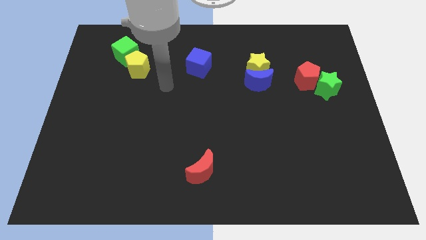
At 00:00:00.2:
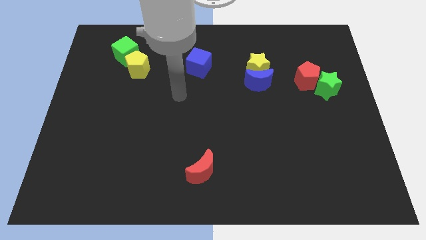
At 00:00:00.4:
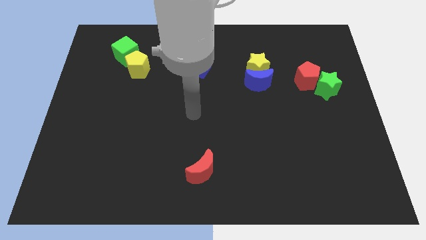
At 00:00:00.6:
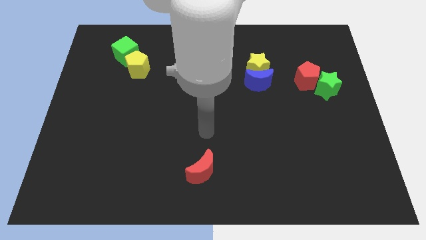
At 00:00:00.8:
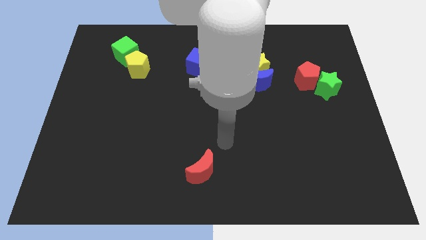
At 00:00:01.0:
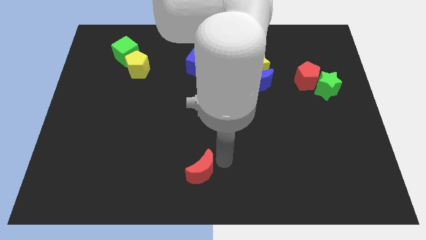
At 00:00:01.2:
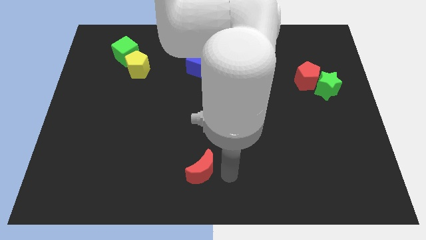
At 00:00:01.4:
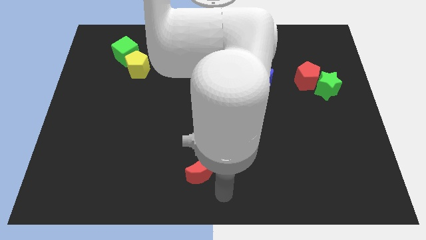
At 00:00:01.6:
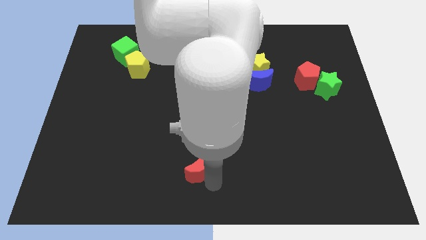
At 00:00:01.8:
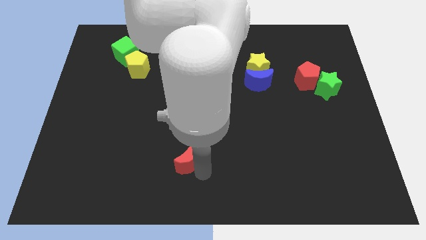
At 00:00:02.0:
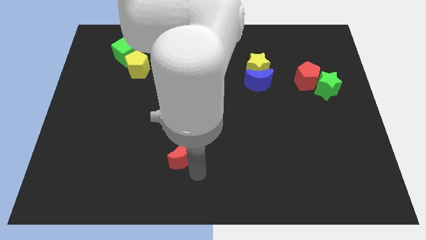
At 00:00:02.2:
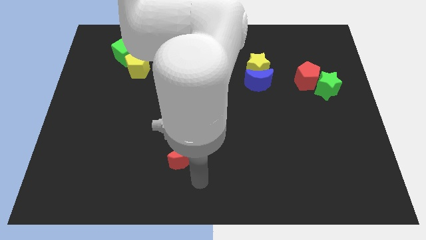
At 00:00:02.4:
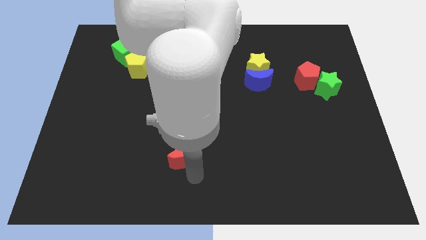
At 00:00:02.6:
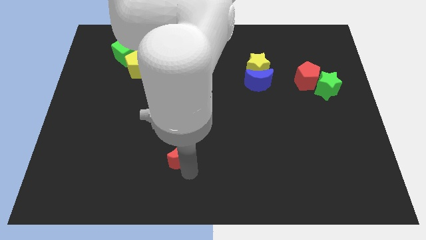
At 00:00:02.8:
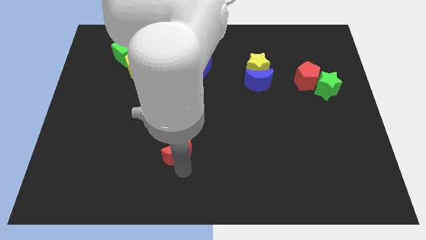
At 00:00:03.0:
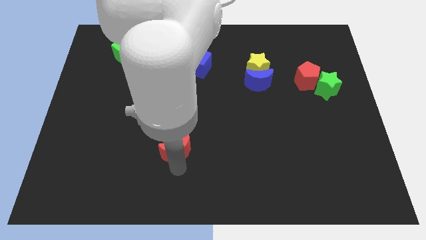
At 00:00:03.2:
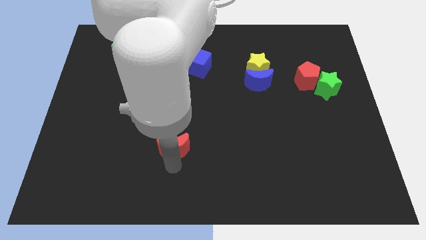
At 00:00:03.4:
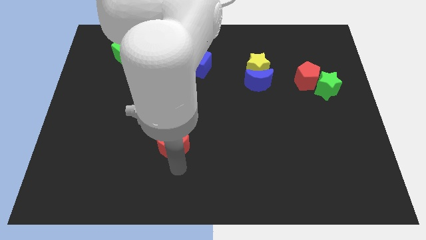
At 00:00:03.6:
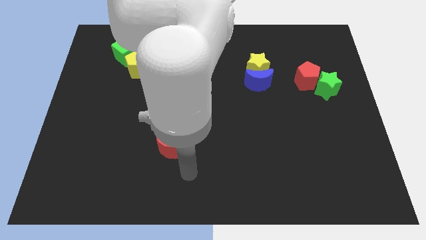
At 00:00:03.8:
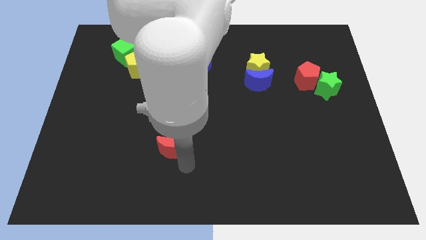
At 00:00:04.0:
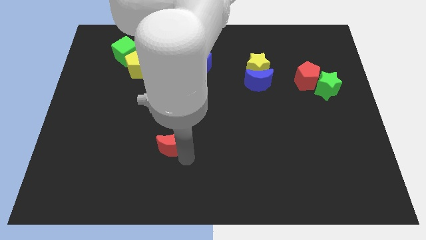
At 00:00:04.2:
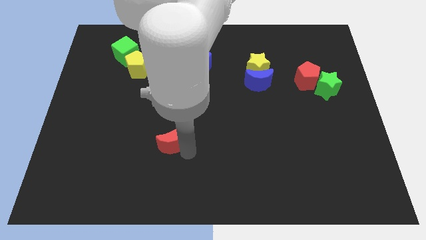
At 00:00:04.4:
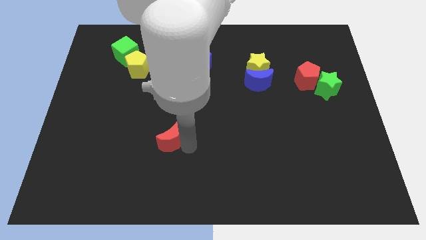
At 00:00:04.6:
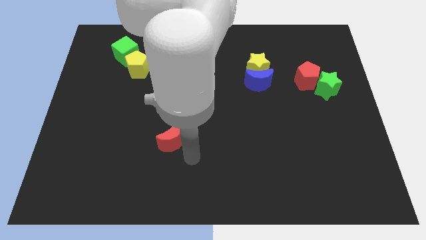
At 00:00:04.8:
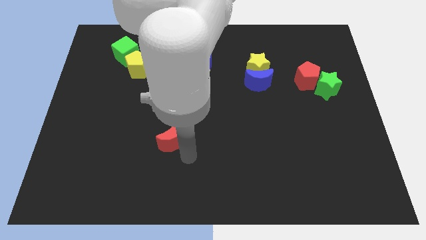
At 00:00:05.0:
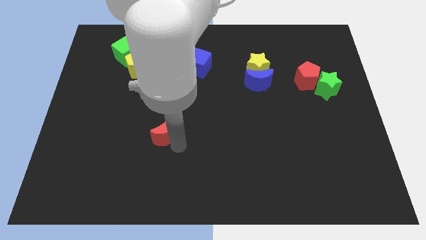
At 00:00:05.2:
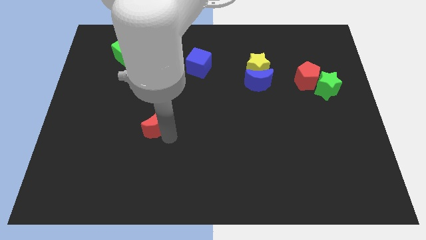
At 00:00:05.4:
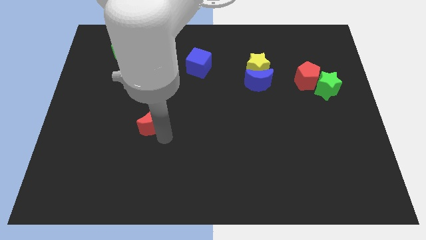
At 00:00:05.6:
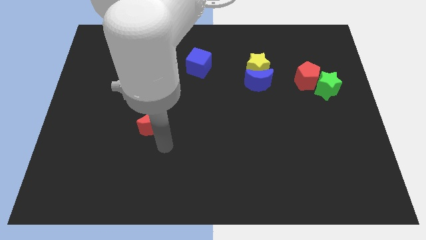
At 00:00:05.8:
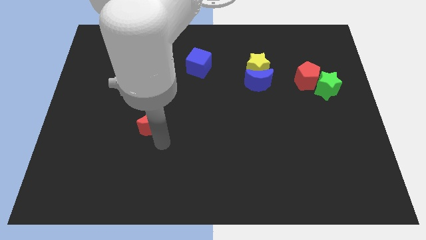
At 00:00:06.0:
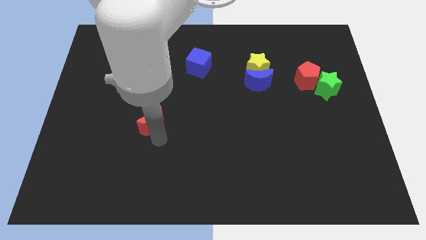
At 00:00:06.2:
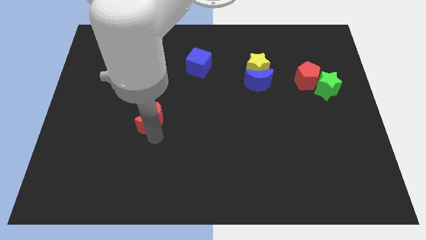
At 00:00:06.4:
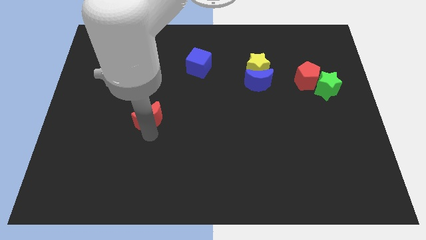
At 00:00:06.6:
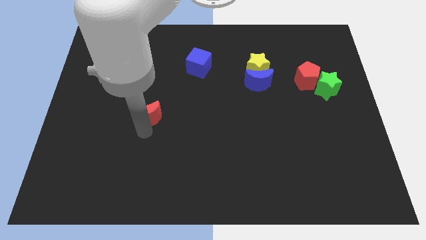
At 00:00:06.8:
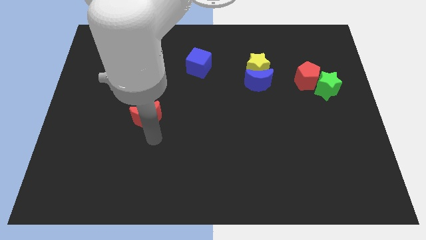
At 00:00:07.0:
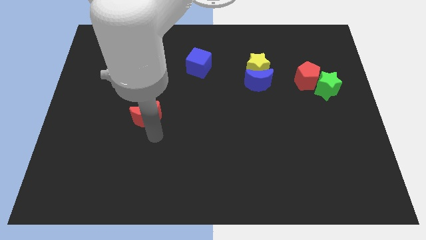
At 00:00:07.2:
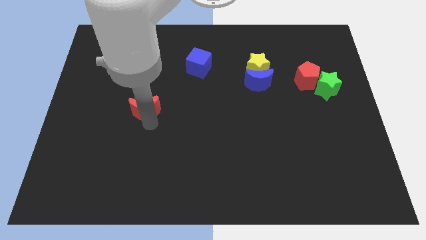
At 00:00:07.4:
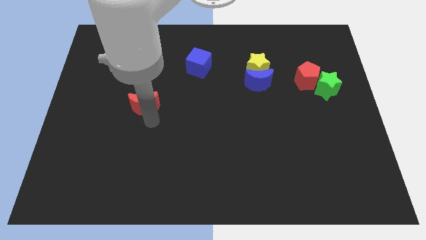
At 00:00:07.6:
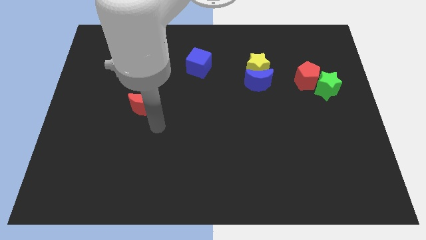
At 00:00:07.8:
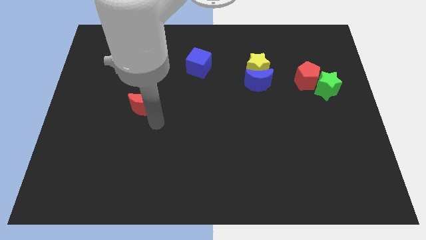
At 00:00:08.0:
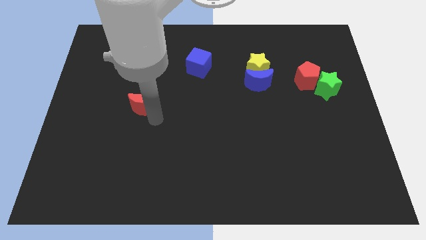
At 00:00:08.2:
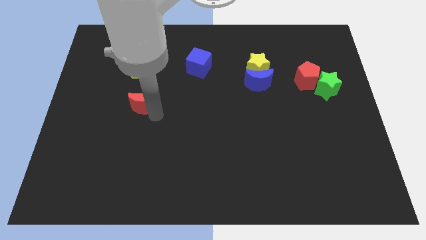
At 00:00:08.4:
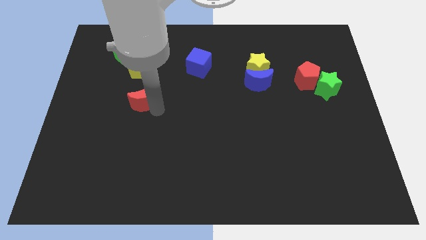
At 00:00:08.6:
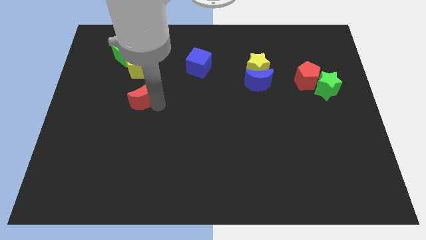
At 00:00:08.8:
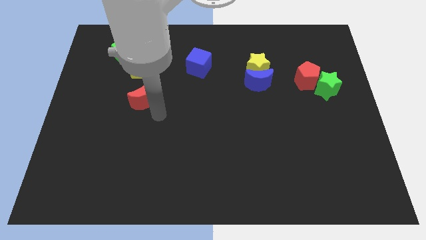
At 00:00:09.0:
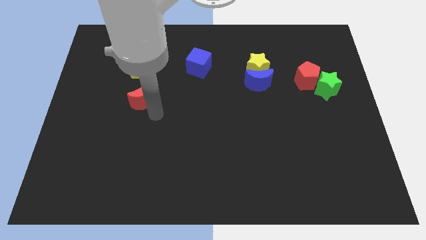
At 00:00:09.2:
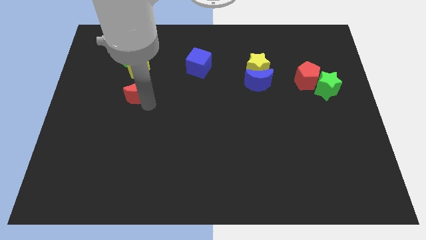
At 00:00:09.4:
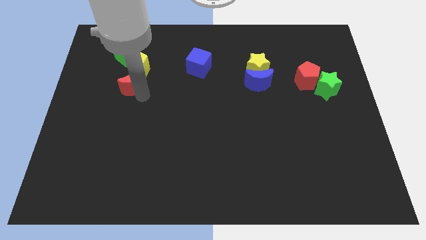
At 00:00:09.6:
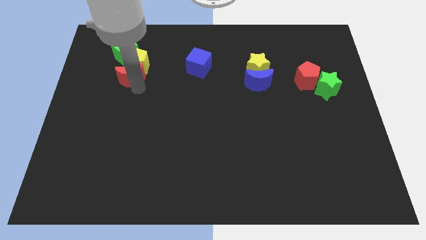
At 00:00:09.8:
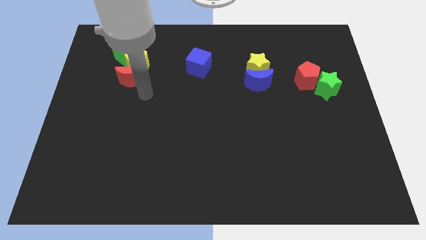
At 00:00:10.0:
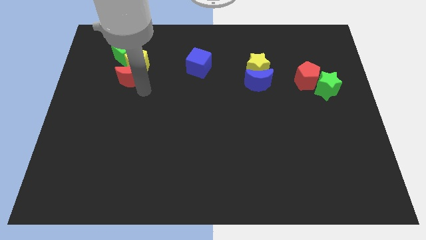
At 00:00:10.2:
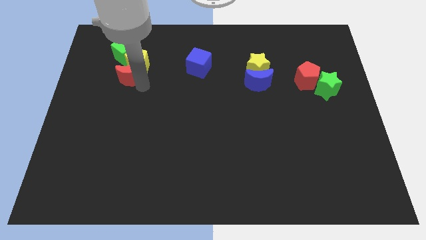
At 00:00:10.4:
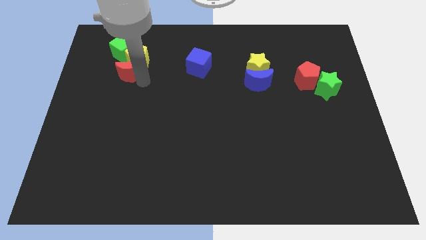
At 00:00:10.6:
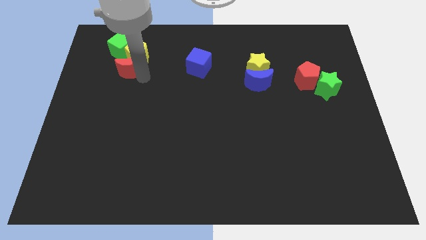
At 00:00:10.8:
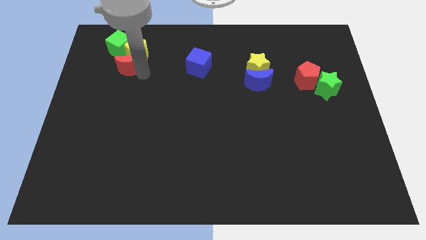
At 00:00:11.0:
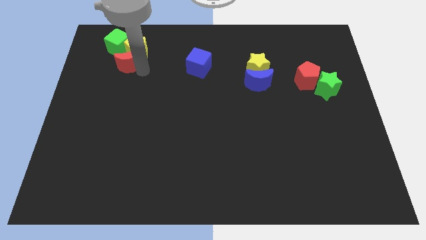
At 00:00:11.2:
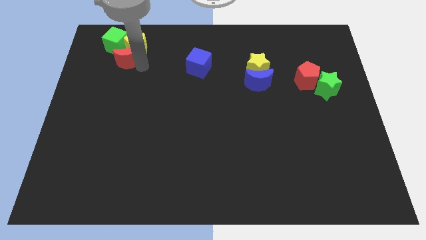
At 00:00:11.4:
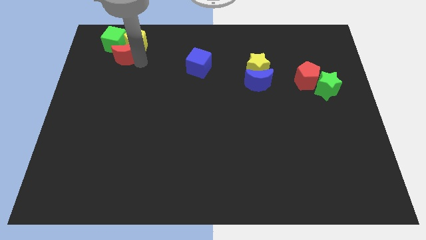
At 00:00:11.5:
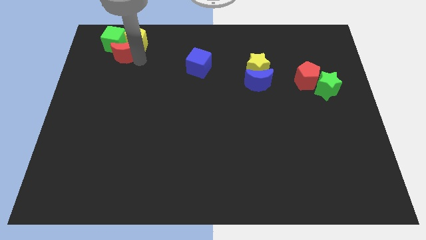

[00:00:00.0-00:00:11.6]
push the red moon to the green cube

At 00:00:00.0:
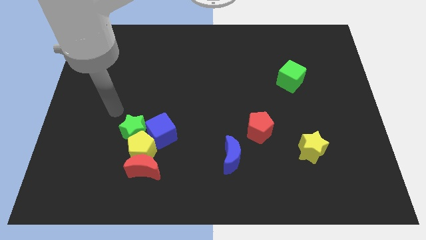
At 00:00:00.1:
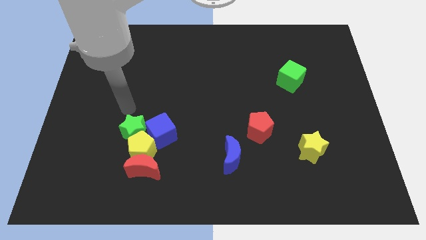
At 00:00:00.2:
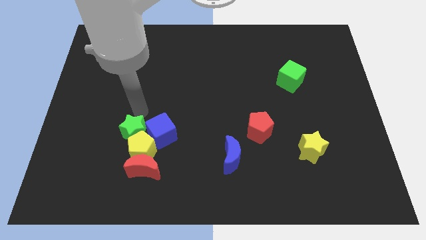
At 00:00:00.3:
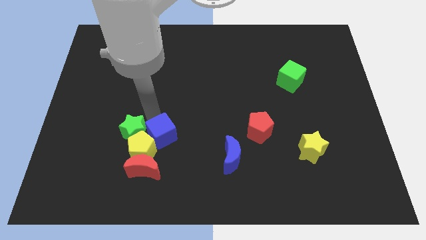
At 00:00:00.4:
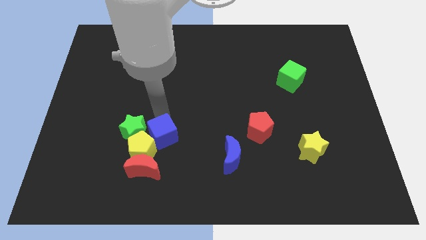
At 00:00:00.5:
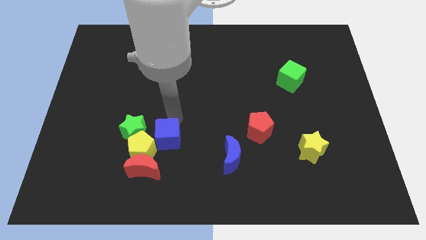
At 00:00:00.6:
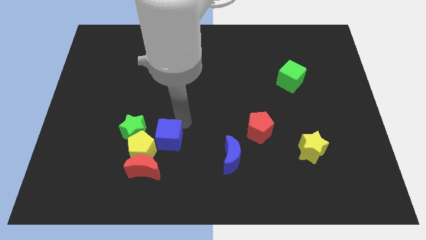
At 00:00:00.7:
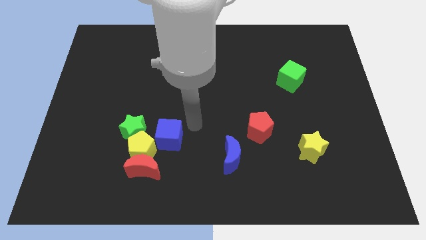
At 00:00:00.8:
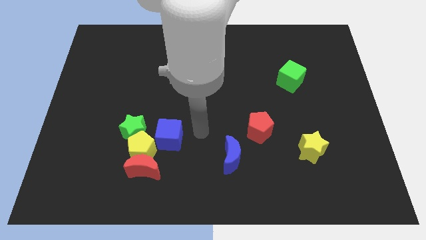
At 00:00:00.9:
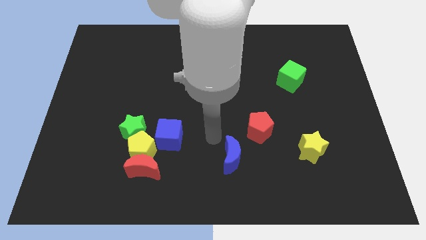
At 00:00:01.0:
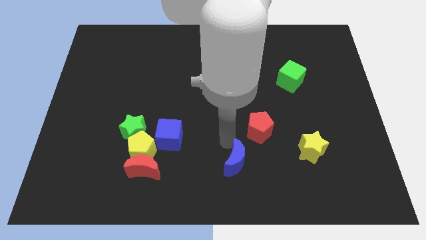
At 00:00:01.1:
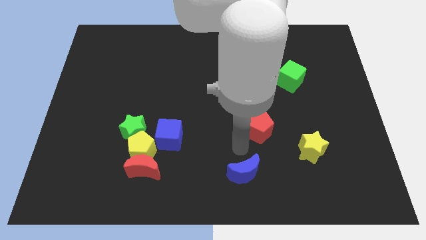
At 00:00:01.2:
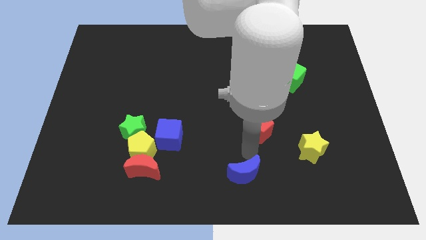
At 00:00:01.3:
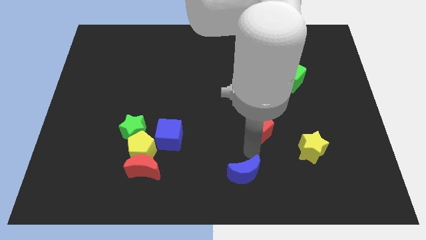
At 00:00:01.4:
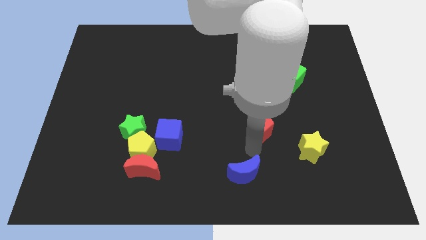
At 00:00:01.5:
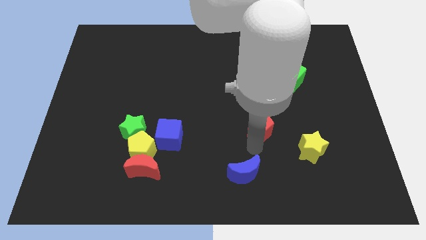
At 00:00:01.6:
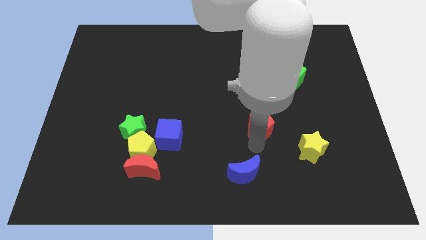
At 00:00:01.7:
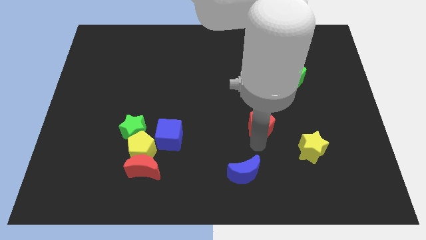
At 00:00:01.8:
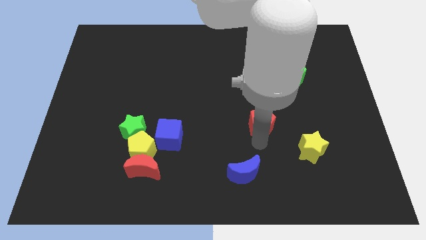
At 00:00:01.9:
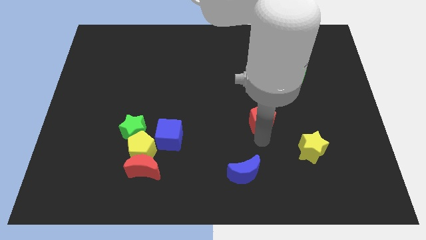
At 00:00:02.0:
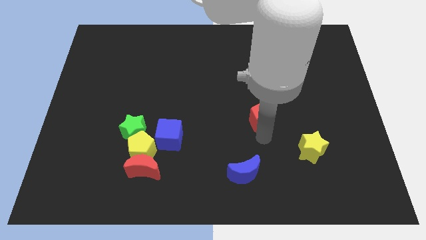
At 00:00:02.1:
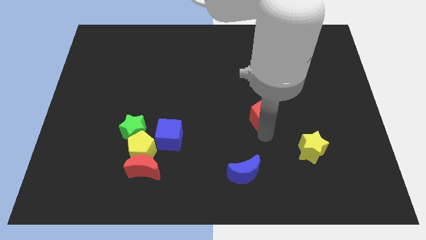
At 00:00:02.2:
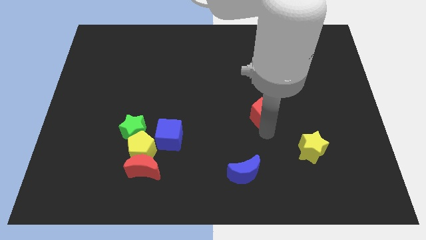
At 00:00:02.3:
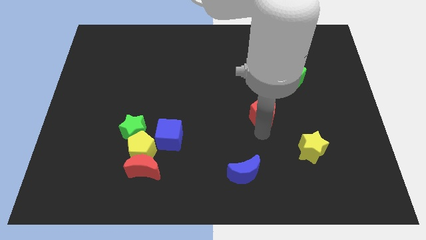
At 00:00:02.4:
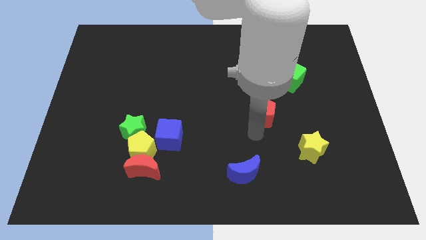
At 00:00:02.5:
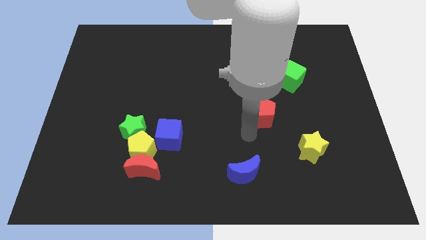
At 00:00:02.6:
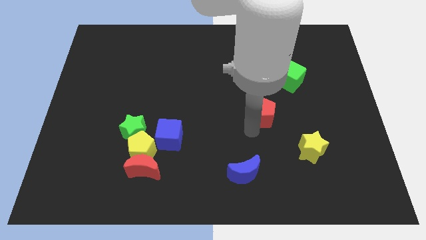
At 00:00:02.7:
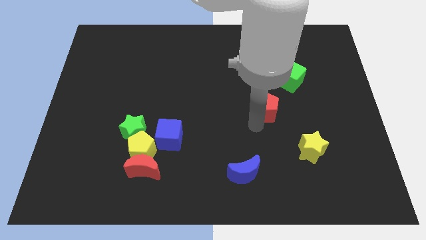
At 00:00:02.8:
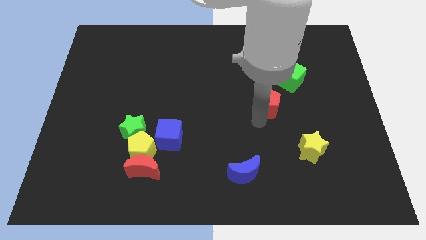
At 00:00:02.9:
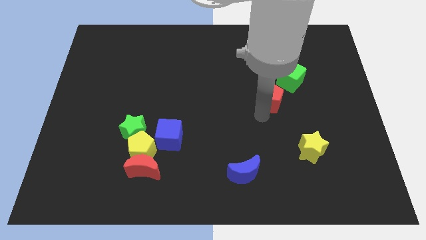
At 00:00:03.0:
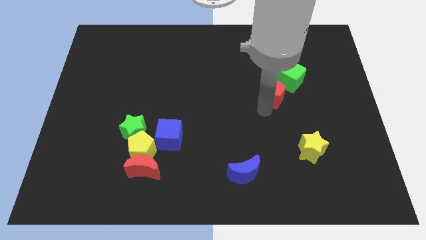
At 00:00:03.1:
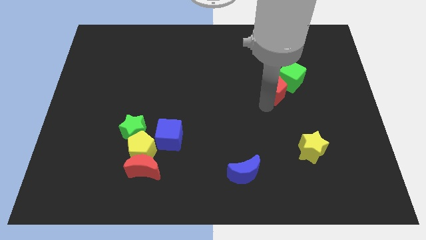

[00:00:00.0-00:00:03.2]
push the red pentagon to the green cube
